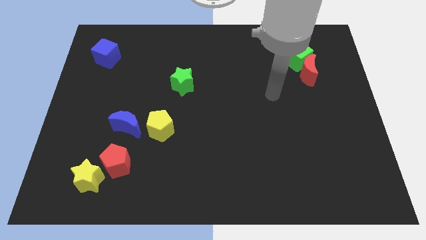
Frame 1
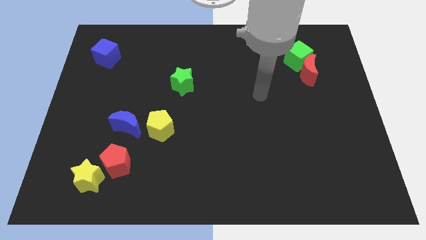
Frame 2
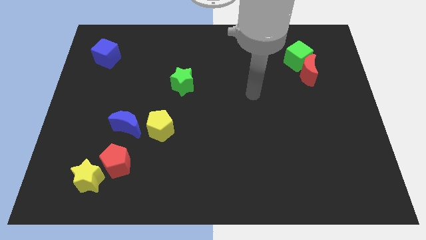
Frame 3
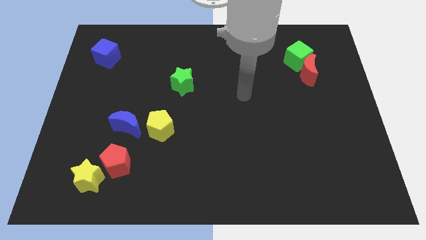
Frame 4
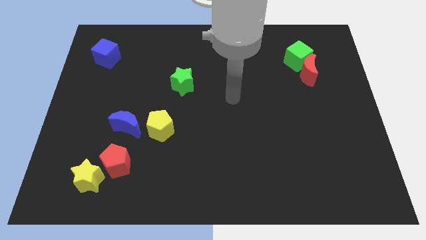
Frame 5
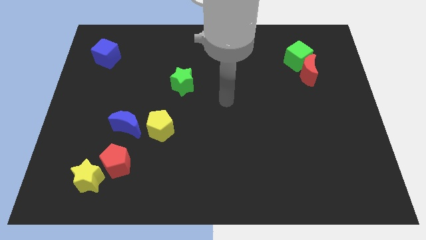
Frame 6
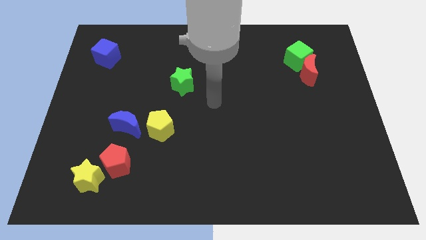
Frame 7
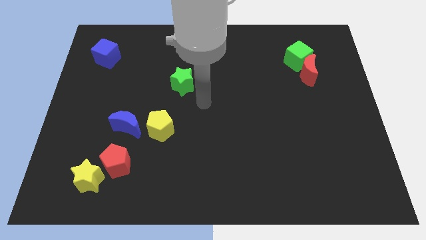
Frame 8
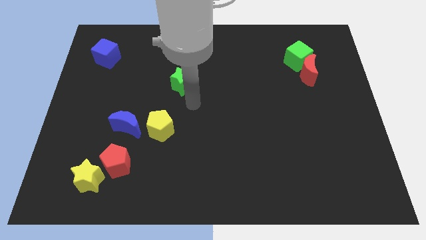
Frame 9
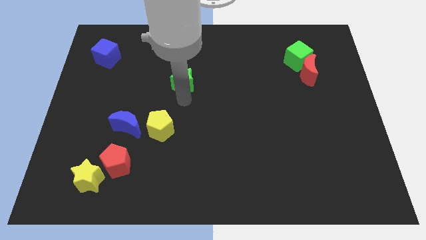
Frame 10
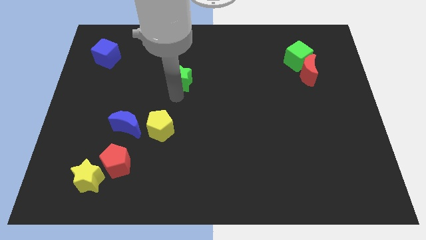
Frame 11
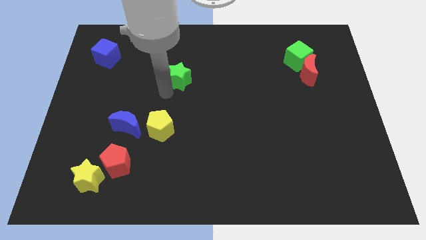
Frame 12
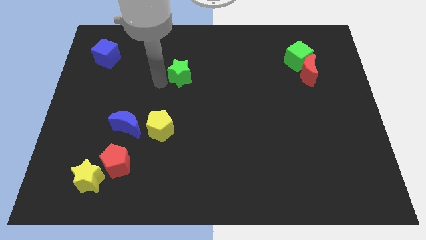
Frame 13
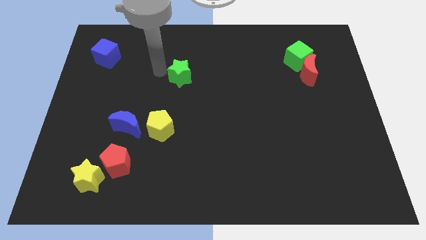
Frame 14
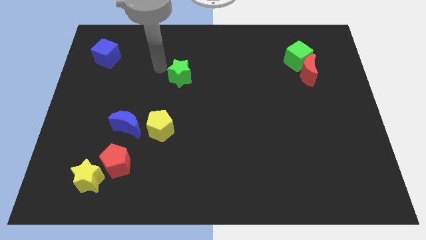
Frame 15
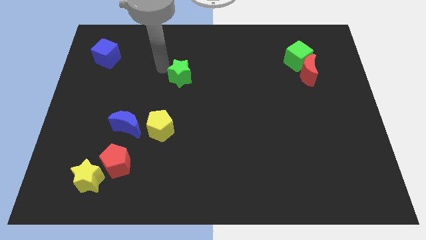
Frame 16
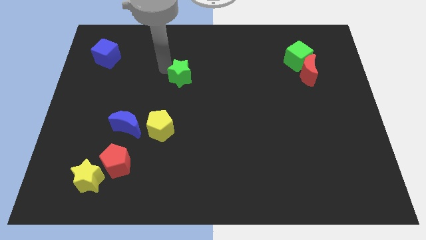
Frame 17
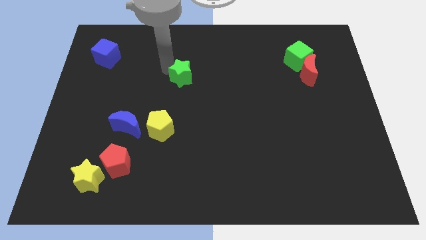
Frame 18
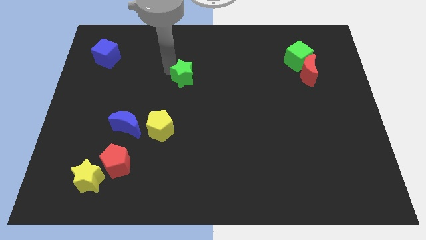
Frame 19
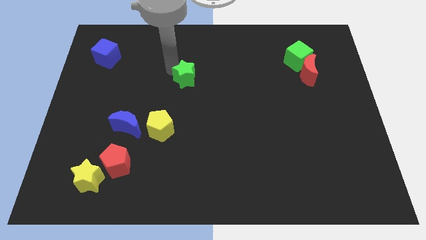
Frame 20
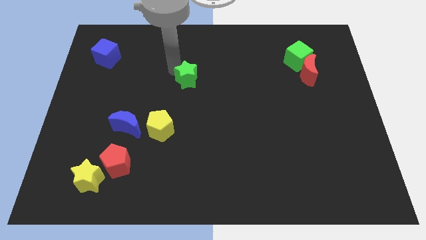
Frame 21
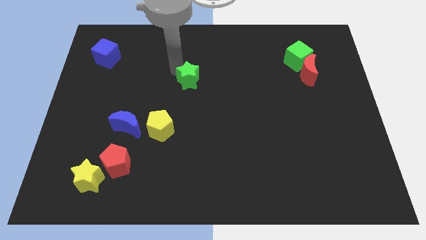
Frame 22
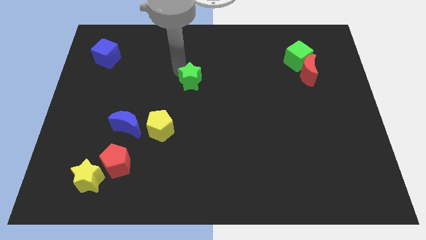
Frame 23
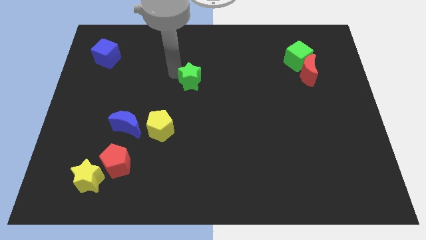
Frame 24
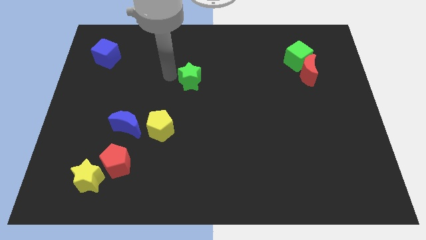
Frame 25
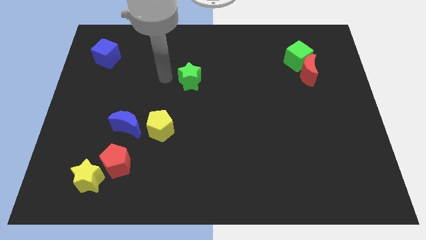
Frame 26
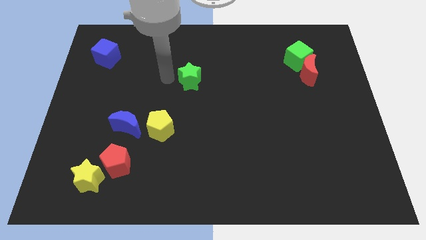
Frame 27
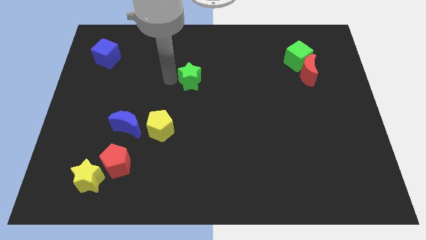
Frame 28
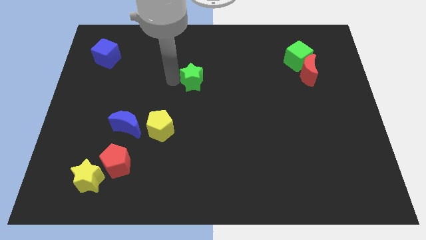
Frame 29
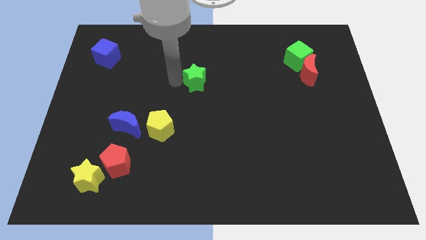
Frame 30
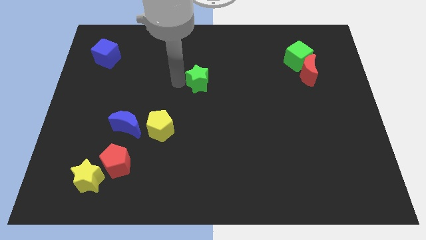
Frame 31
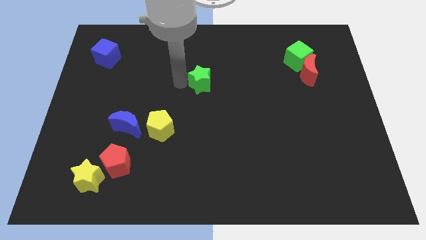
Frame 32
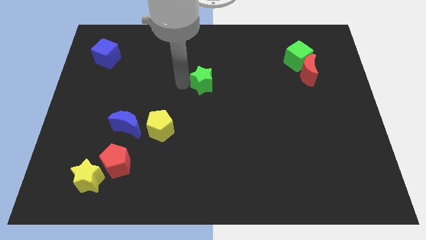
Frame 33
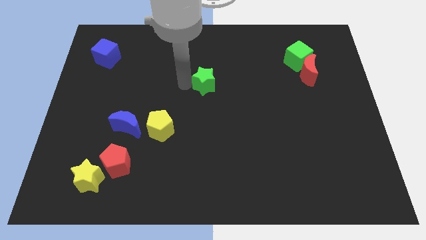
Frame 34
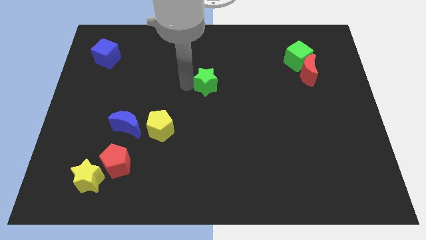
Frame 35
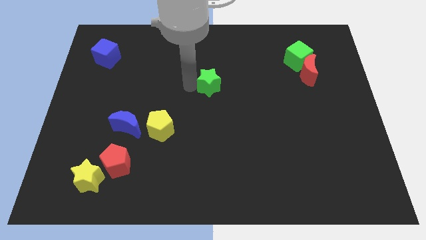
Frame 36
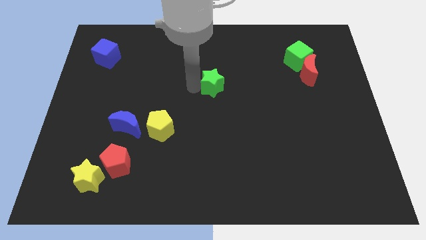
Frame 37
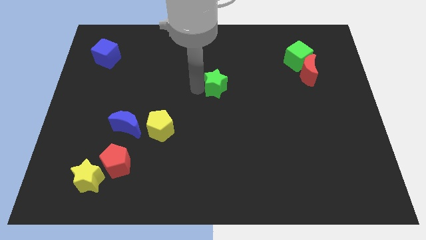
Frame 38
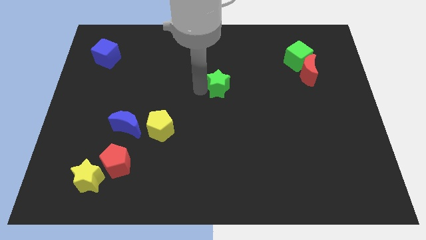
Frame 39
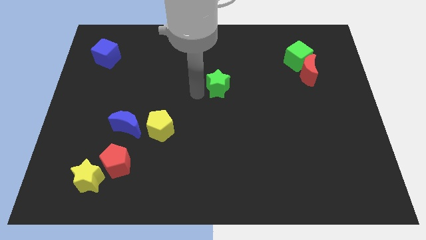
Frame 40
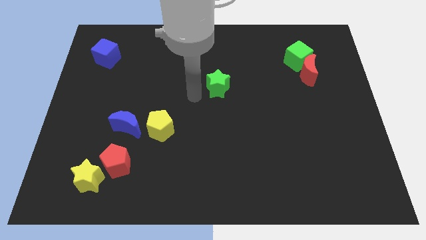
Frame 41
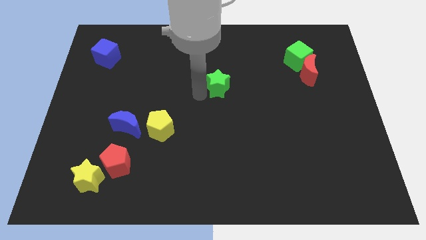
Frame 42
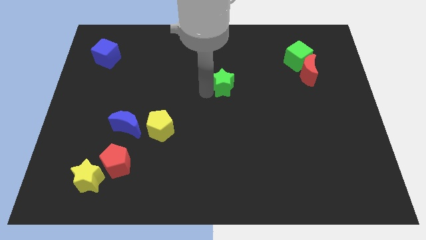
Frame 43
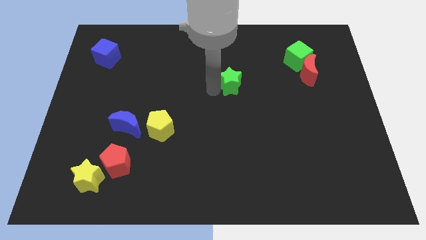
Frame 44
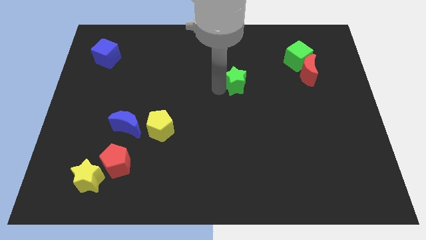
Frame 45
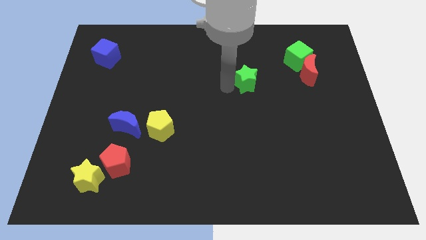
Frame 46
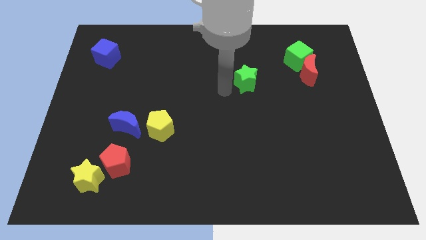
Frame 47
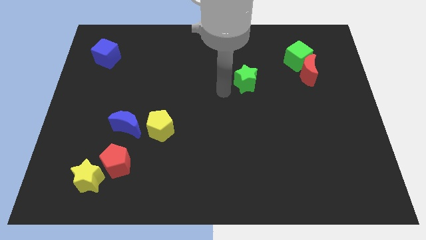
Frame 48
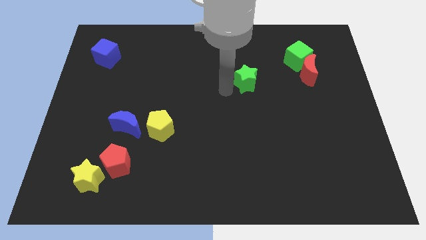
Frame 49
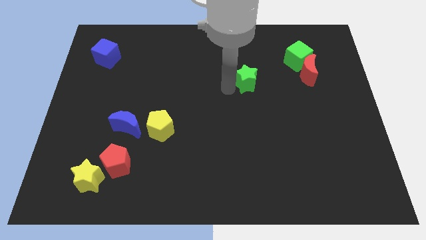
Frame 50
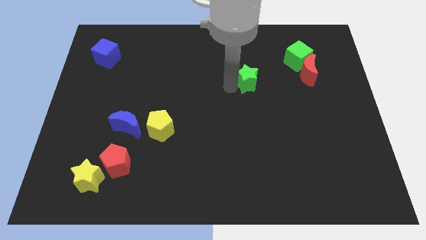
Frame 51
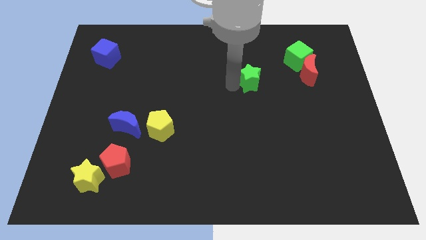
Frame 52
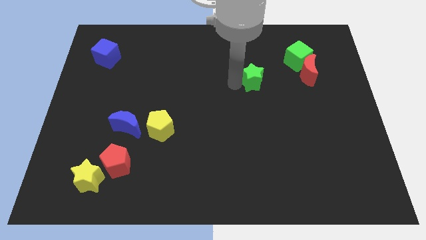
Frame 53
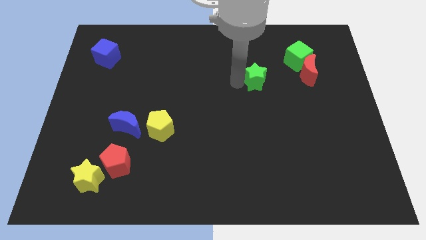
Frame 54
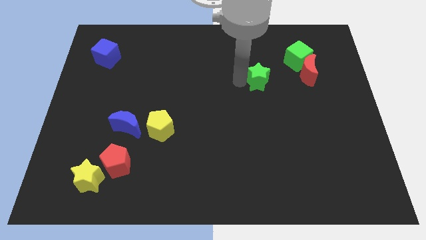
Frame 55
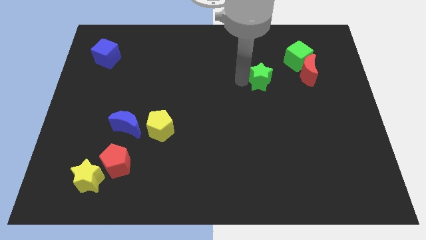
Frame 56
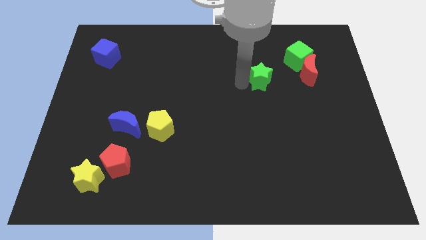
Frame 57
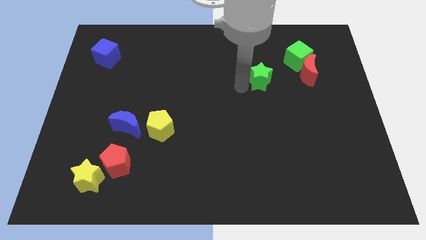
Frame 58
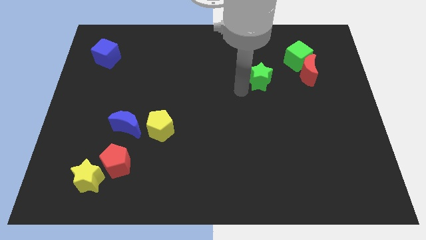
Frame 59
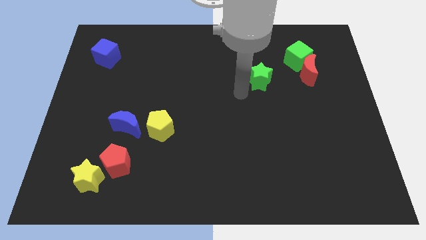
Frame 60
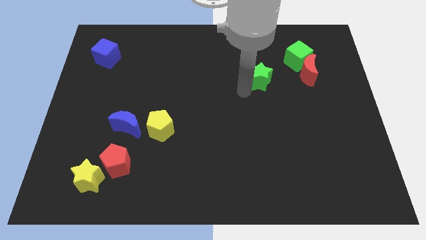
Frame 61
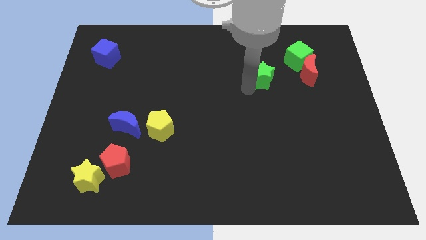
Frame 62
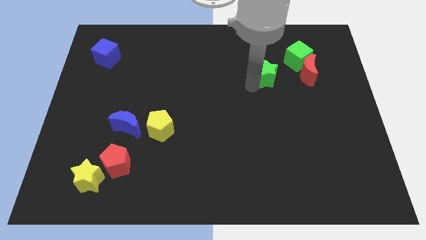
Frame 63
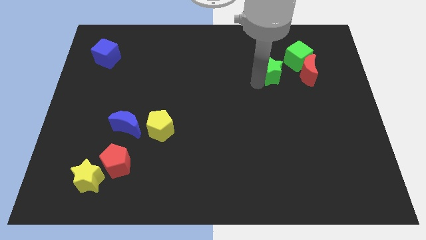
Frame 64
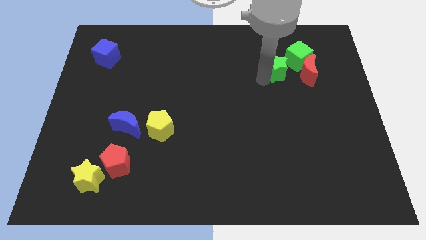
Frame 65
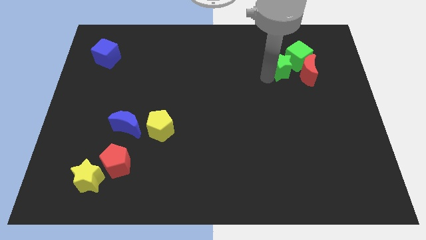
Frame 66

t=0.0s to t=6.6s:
put the green star close to the green cube
